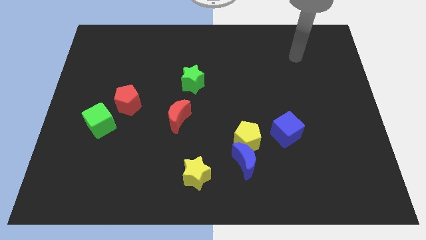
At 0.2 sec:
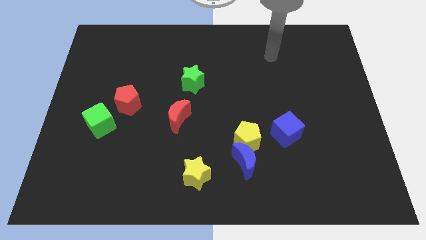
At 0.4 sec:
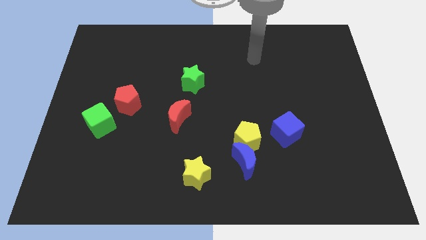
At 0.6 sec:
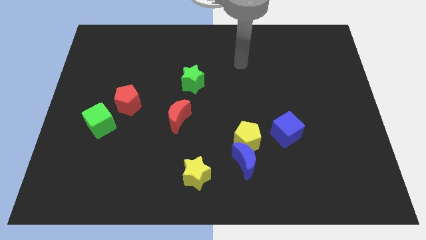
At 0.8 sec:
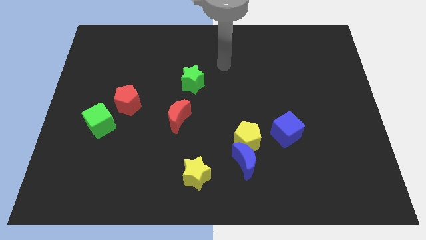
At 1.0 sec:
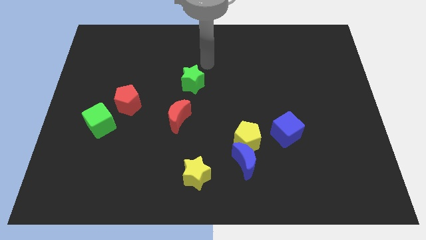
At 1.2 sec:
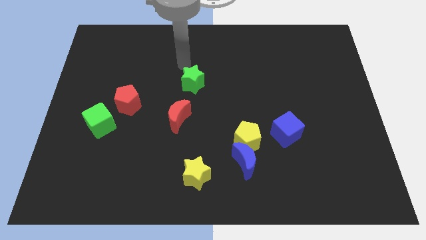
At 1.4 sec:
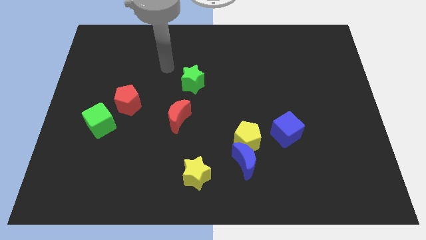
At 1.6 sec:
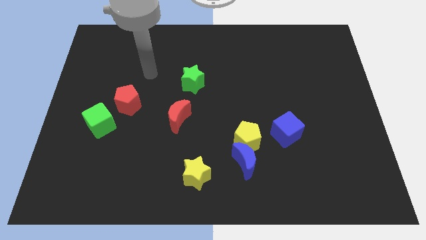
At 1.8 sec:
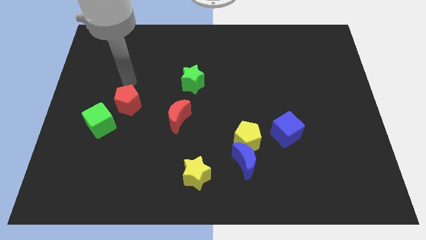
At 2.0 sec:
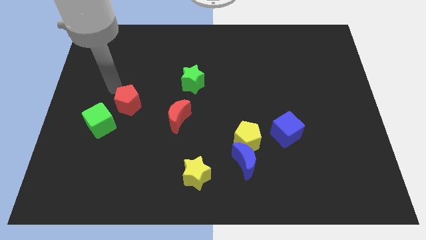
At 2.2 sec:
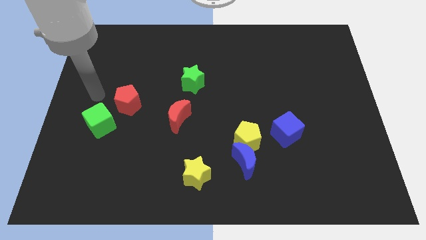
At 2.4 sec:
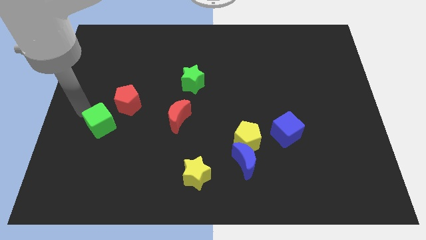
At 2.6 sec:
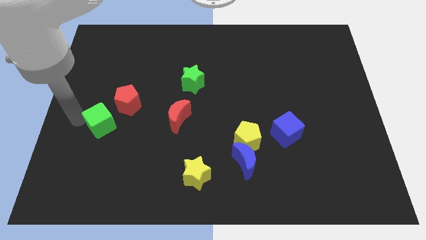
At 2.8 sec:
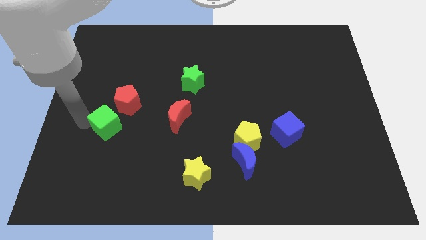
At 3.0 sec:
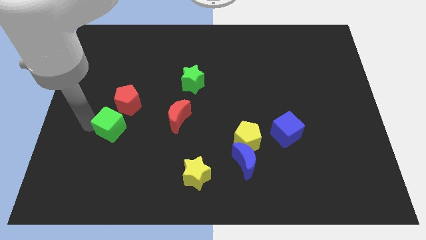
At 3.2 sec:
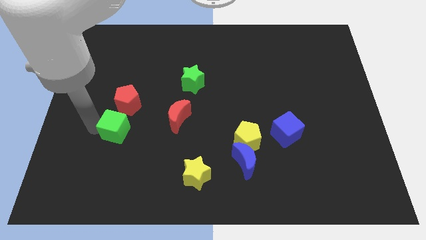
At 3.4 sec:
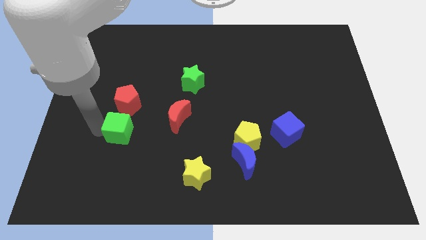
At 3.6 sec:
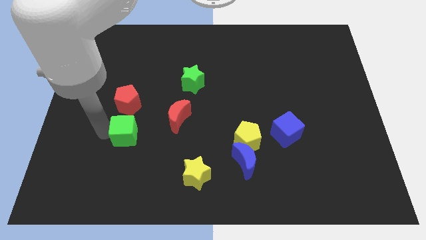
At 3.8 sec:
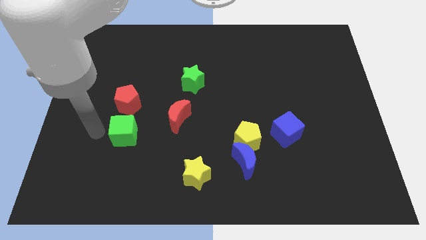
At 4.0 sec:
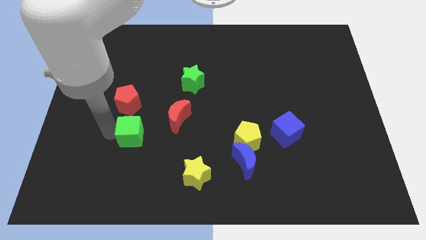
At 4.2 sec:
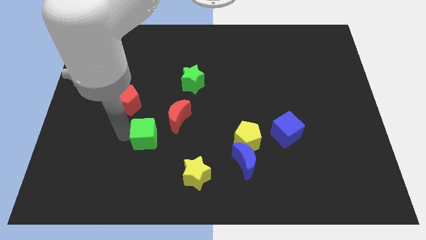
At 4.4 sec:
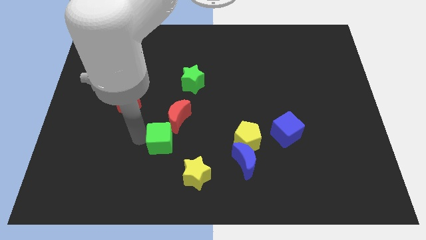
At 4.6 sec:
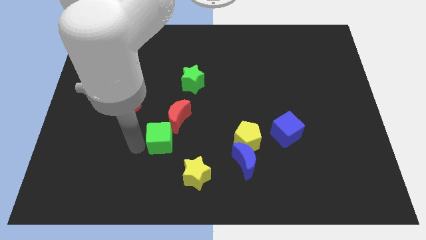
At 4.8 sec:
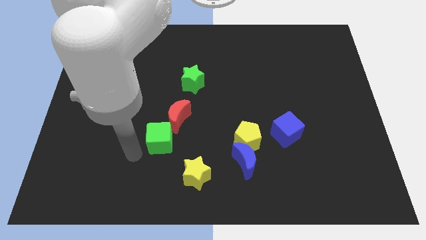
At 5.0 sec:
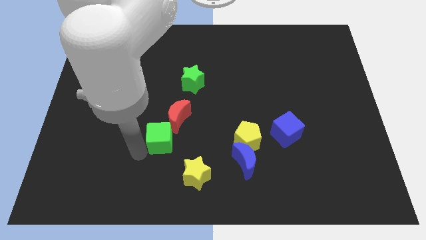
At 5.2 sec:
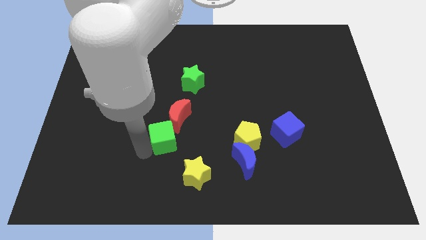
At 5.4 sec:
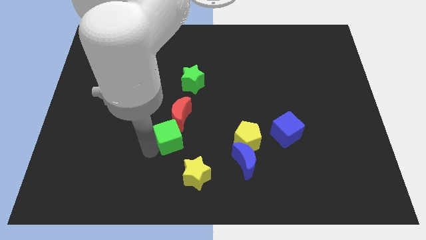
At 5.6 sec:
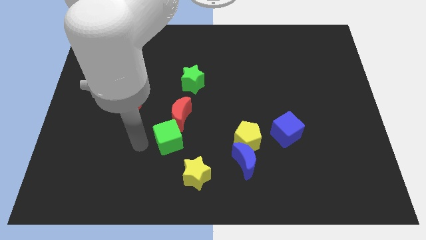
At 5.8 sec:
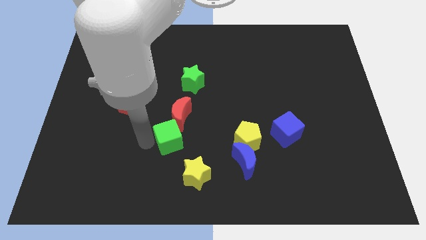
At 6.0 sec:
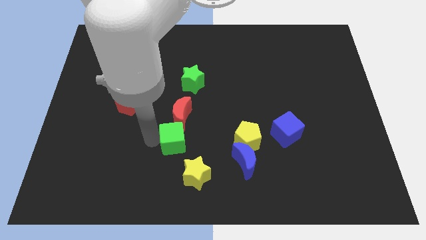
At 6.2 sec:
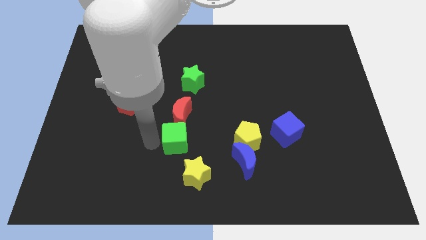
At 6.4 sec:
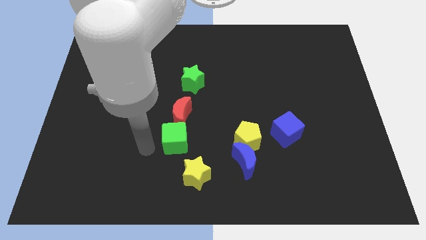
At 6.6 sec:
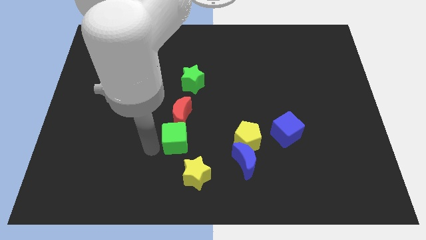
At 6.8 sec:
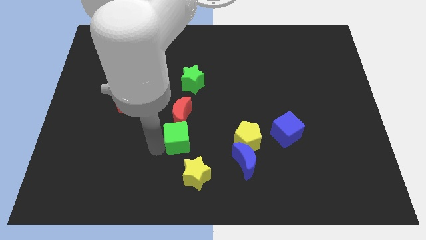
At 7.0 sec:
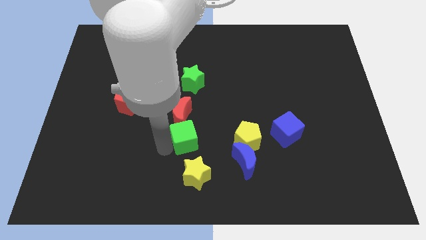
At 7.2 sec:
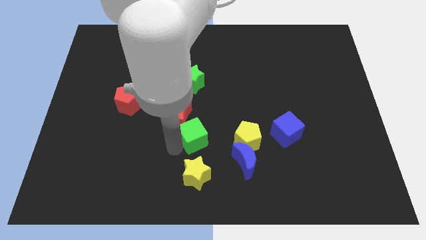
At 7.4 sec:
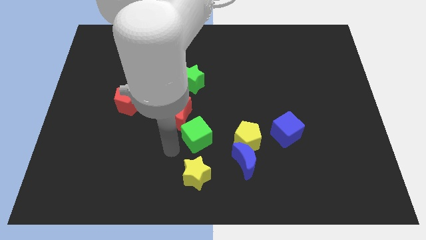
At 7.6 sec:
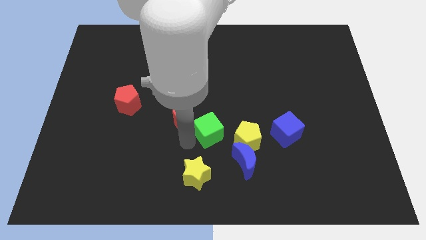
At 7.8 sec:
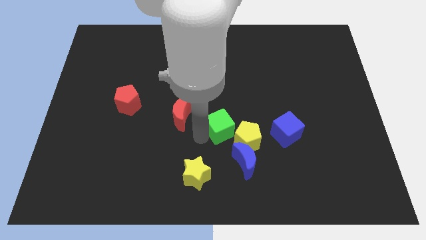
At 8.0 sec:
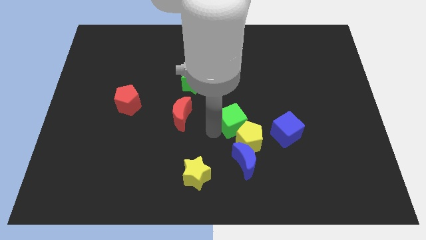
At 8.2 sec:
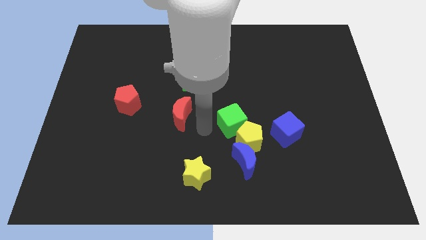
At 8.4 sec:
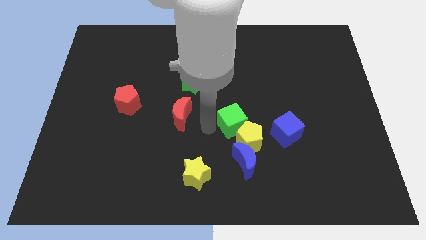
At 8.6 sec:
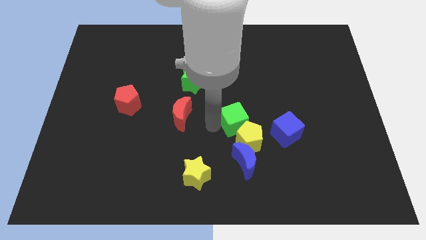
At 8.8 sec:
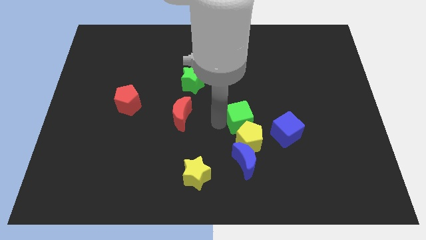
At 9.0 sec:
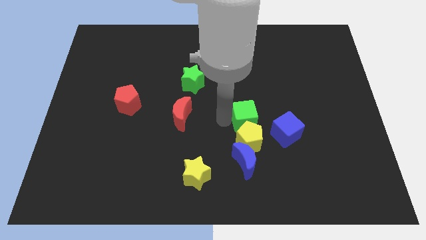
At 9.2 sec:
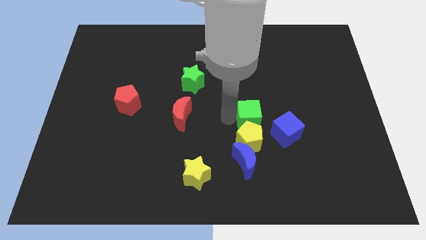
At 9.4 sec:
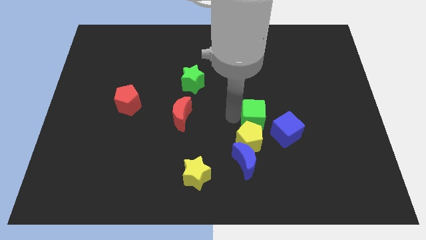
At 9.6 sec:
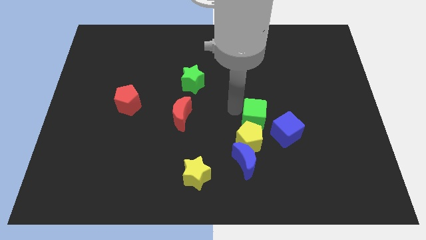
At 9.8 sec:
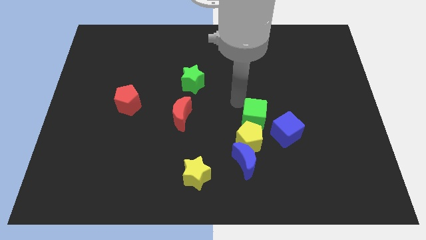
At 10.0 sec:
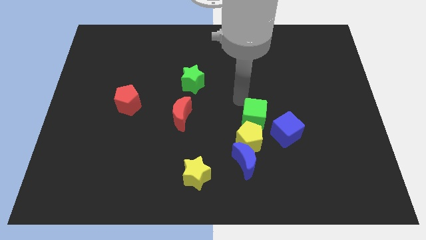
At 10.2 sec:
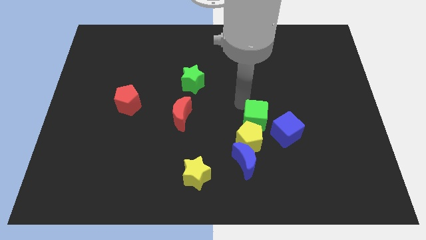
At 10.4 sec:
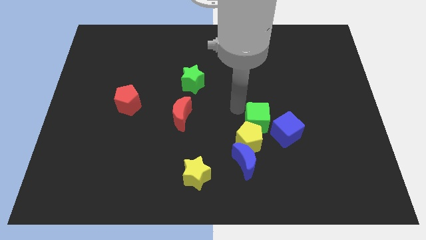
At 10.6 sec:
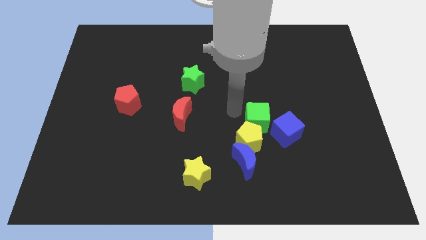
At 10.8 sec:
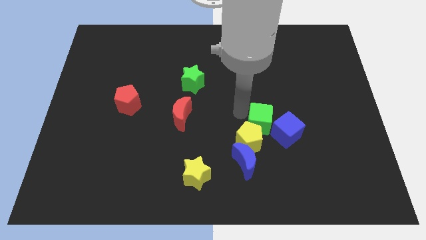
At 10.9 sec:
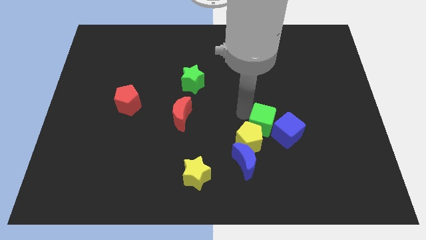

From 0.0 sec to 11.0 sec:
push the green cube to the blue cube

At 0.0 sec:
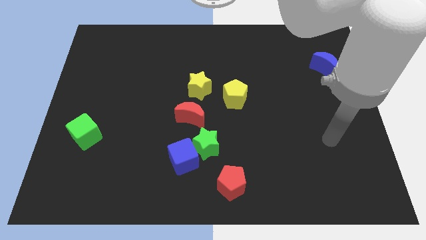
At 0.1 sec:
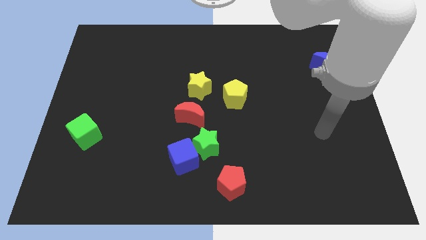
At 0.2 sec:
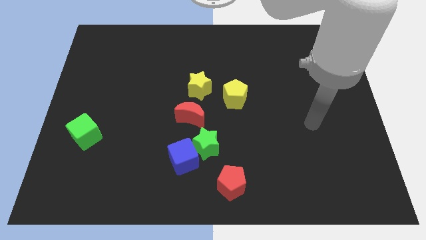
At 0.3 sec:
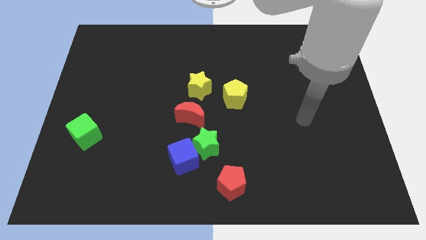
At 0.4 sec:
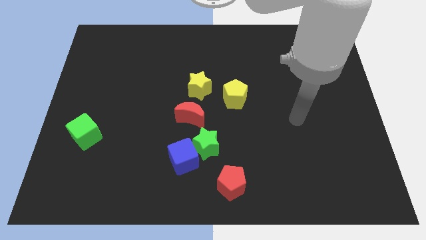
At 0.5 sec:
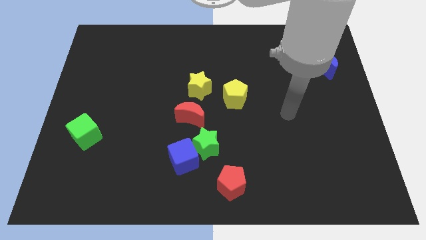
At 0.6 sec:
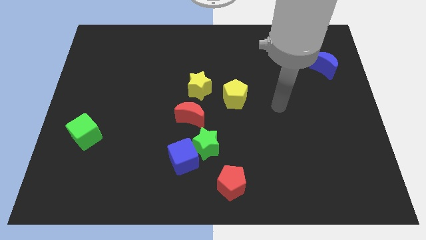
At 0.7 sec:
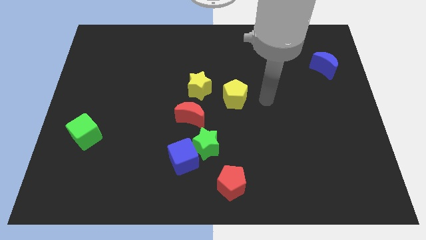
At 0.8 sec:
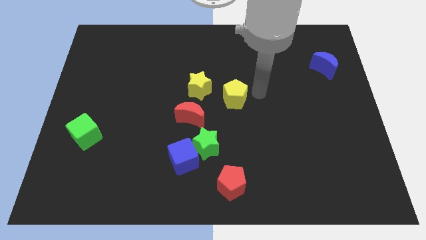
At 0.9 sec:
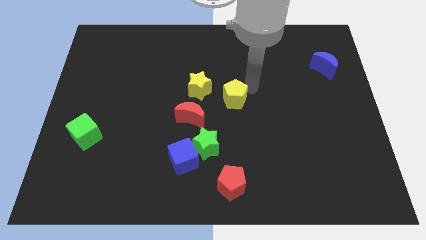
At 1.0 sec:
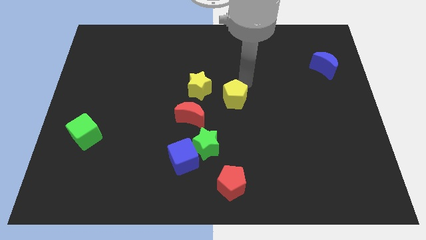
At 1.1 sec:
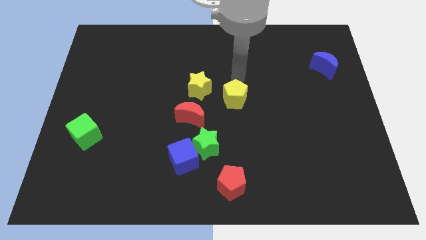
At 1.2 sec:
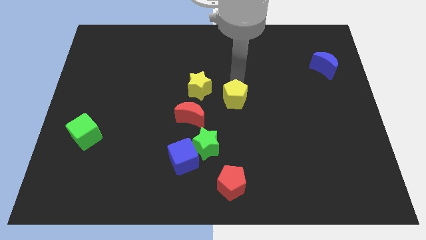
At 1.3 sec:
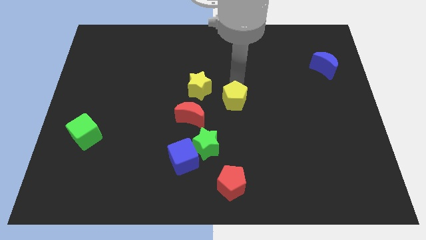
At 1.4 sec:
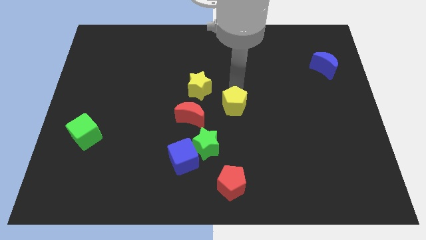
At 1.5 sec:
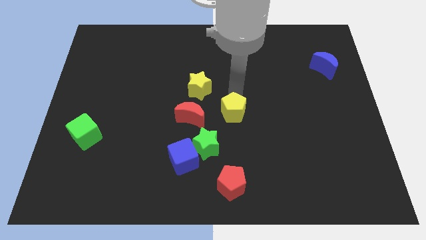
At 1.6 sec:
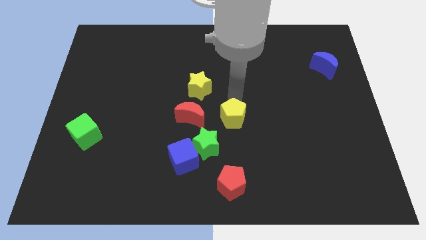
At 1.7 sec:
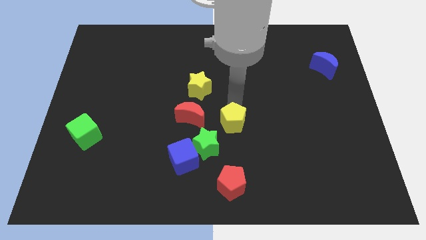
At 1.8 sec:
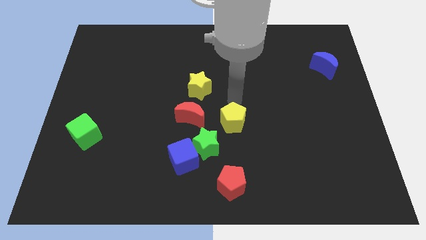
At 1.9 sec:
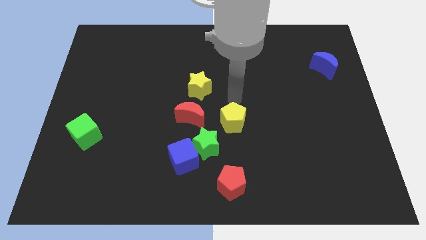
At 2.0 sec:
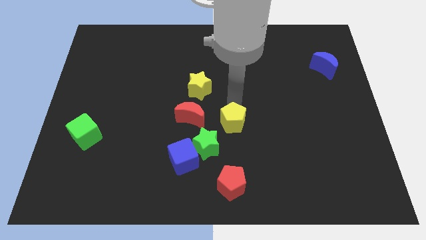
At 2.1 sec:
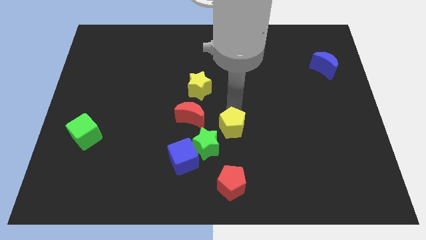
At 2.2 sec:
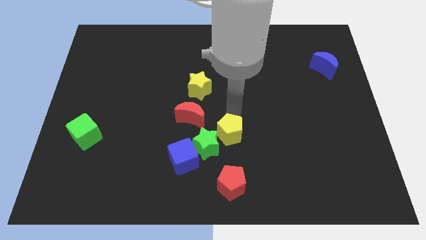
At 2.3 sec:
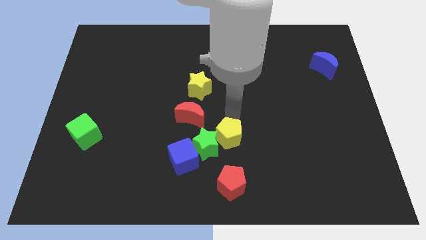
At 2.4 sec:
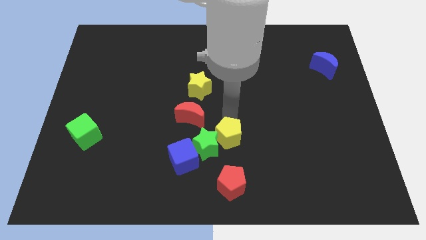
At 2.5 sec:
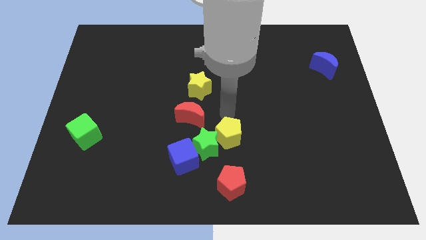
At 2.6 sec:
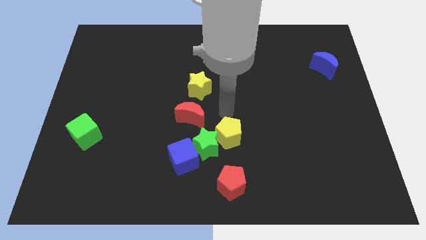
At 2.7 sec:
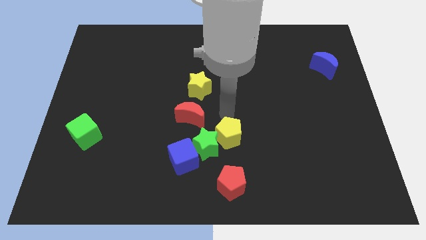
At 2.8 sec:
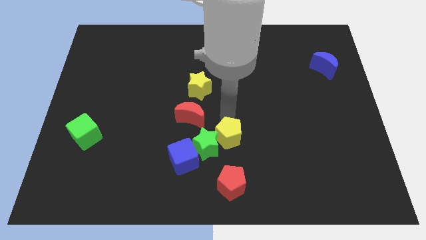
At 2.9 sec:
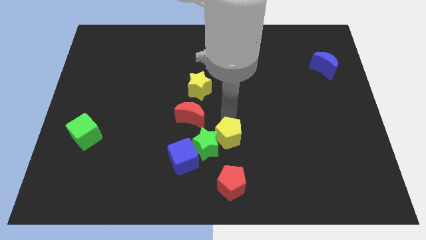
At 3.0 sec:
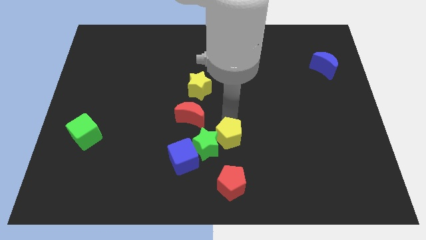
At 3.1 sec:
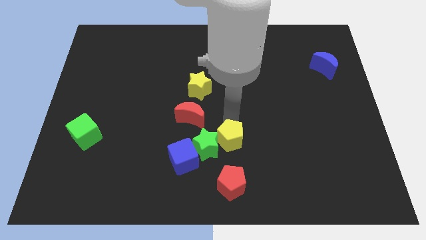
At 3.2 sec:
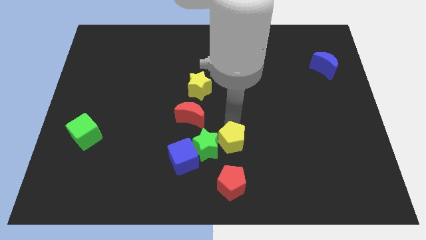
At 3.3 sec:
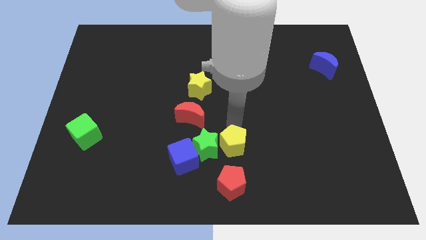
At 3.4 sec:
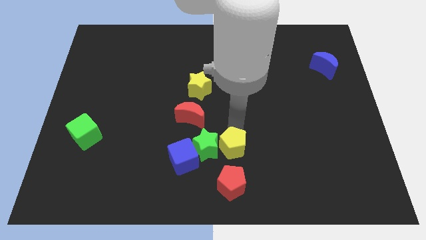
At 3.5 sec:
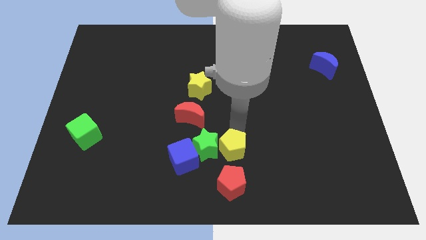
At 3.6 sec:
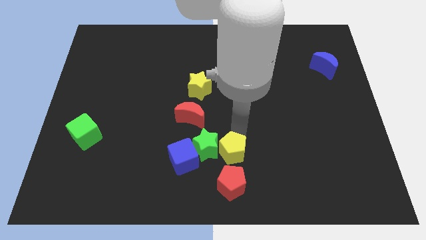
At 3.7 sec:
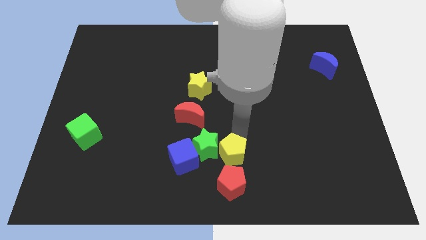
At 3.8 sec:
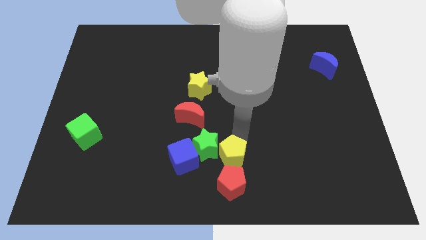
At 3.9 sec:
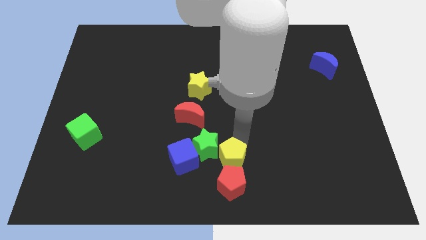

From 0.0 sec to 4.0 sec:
push the yellow pentagon to the red pentagon
